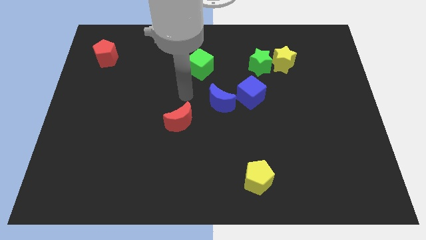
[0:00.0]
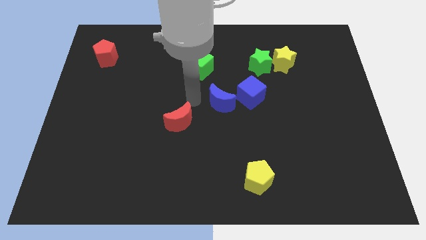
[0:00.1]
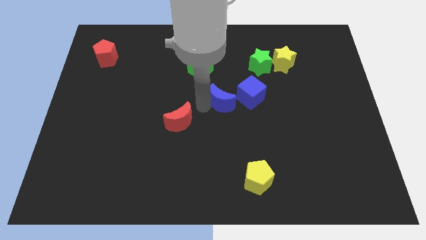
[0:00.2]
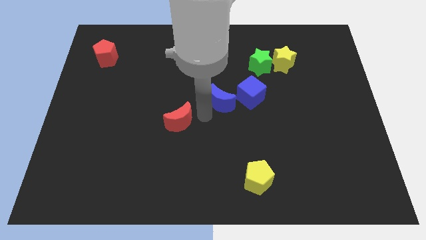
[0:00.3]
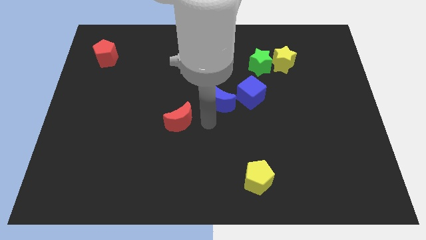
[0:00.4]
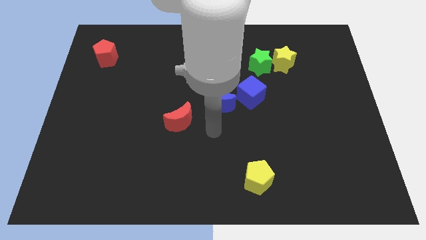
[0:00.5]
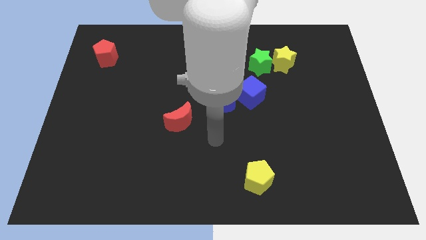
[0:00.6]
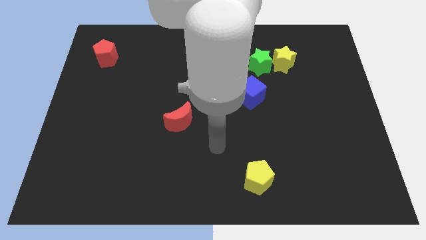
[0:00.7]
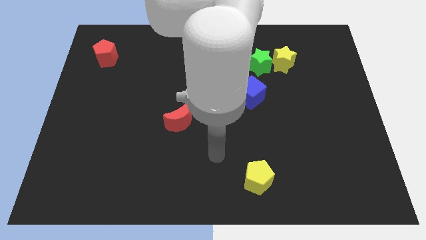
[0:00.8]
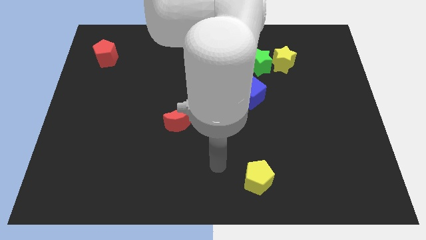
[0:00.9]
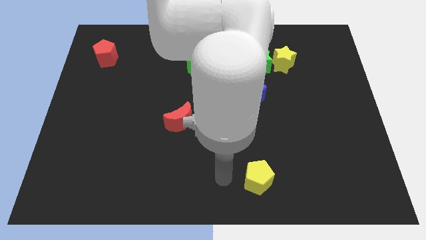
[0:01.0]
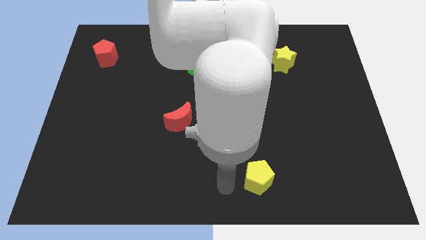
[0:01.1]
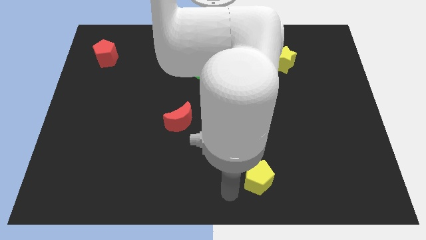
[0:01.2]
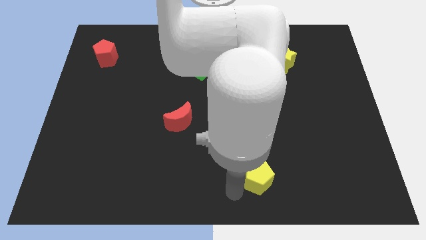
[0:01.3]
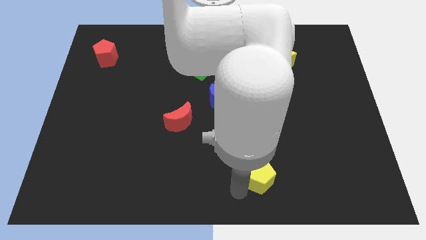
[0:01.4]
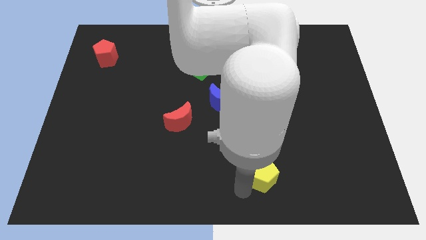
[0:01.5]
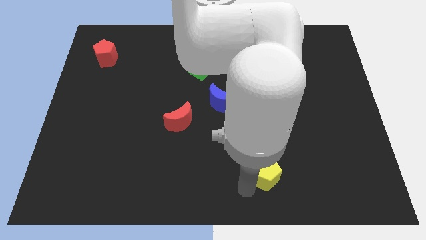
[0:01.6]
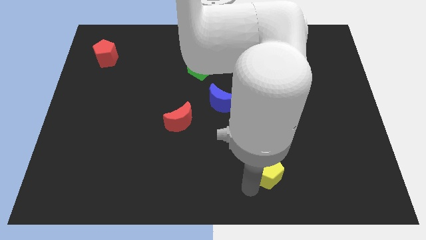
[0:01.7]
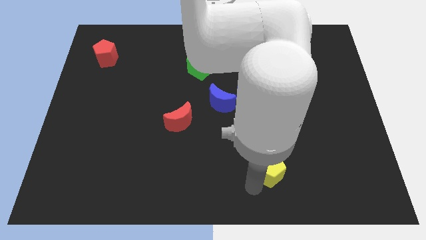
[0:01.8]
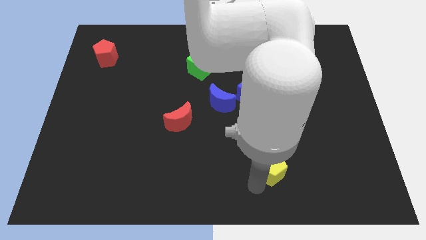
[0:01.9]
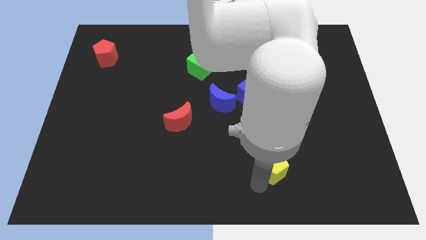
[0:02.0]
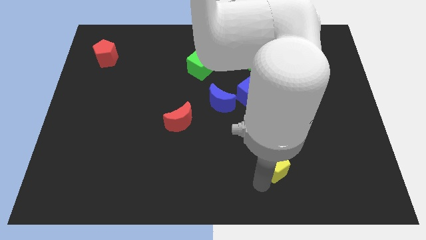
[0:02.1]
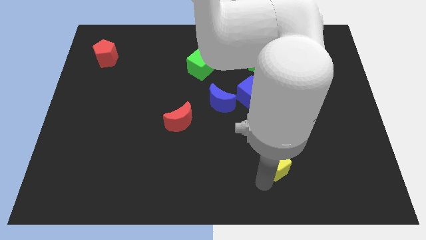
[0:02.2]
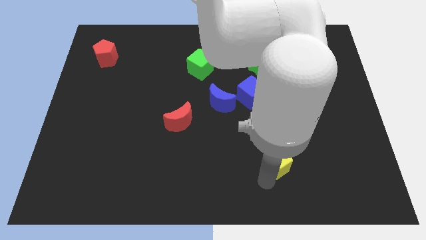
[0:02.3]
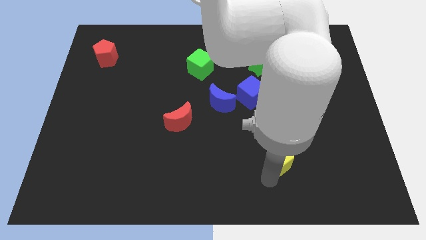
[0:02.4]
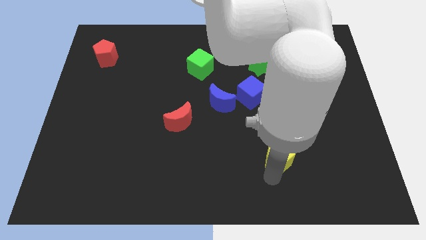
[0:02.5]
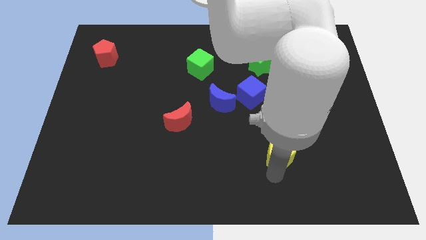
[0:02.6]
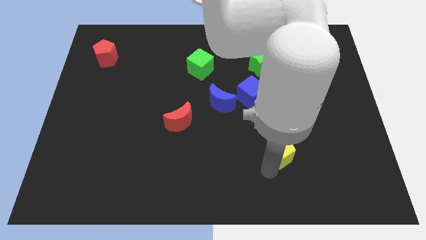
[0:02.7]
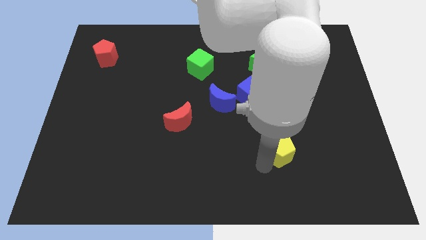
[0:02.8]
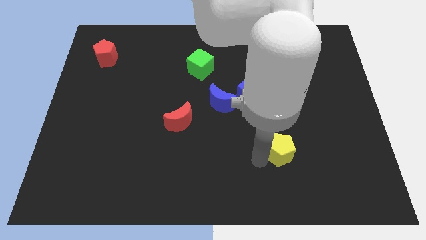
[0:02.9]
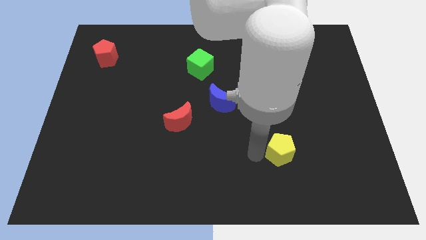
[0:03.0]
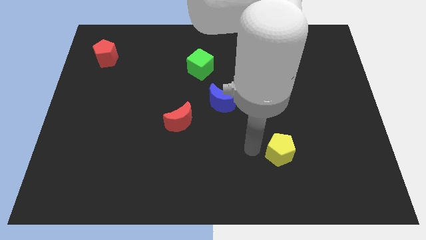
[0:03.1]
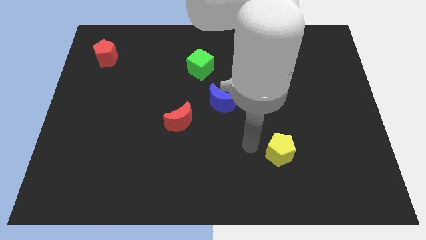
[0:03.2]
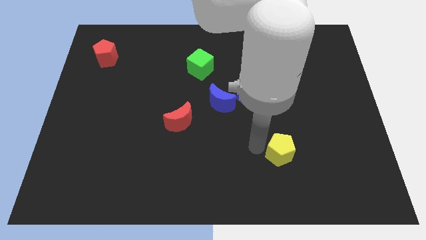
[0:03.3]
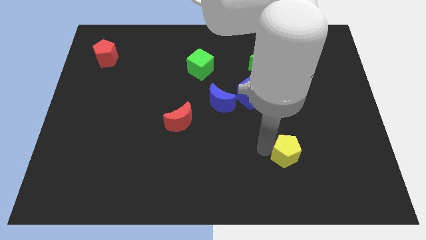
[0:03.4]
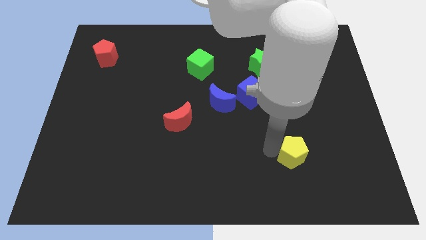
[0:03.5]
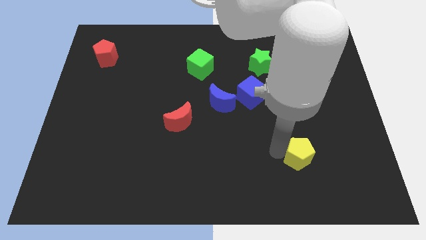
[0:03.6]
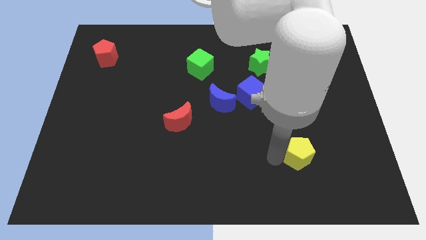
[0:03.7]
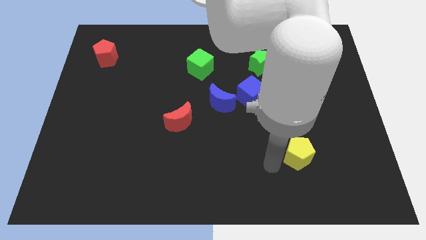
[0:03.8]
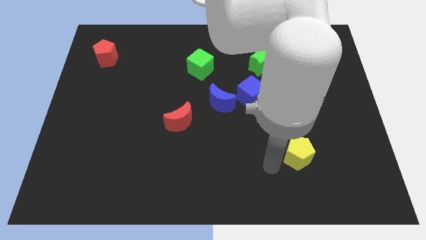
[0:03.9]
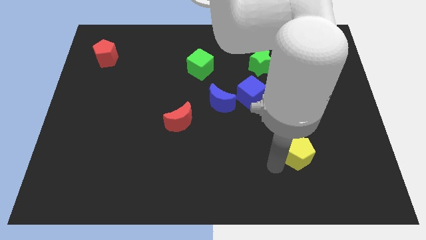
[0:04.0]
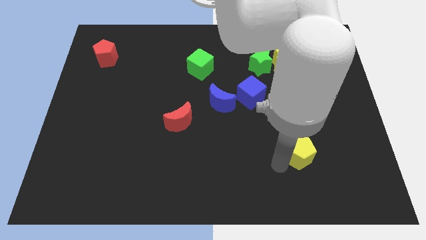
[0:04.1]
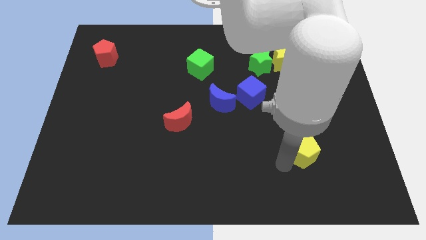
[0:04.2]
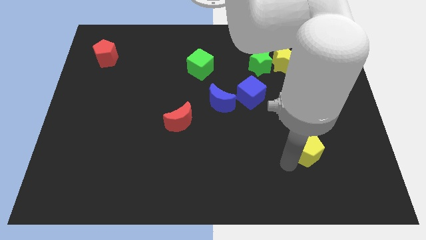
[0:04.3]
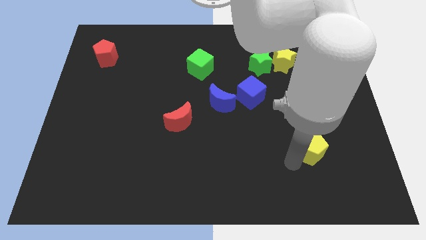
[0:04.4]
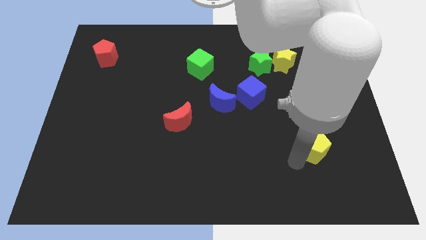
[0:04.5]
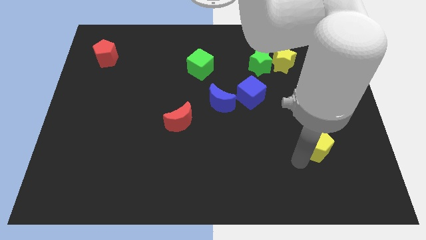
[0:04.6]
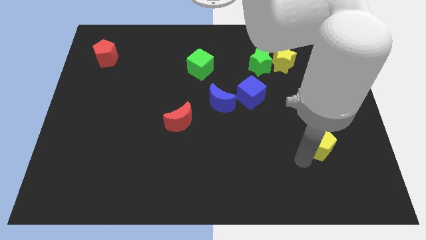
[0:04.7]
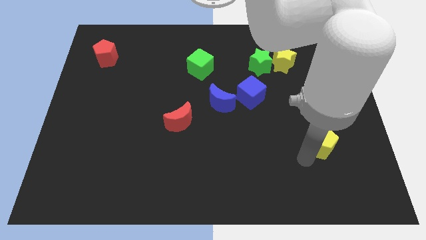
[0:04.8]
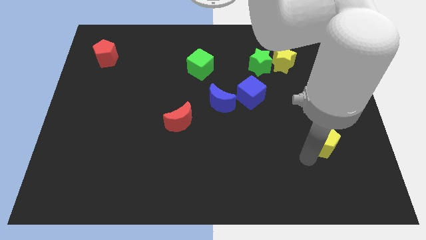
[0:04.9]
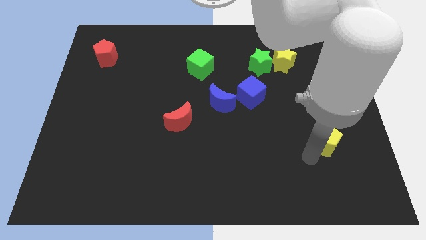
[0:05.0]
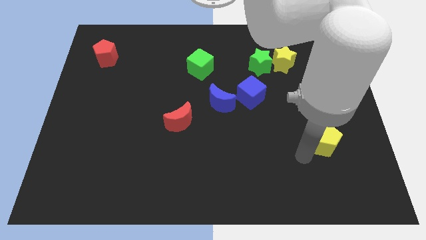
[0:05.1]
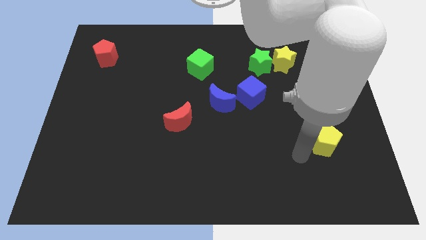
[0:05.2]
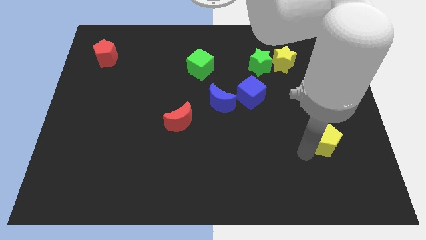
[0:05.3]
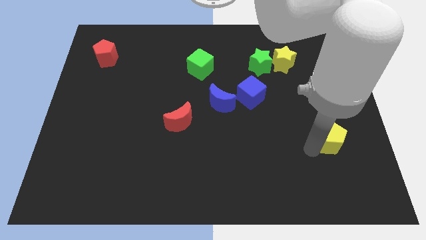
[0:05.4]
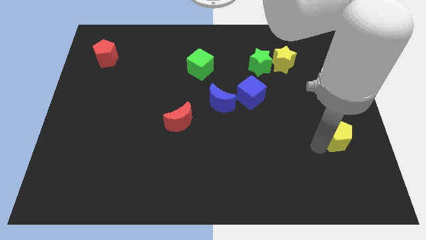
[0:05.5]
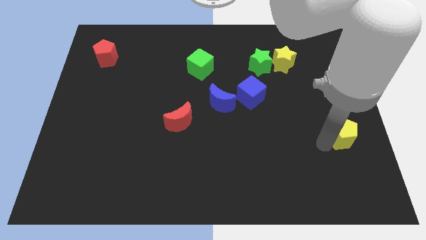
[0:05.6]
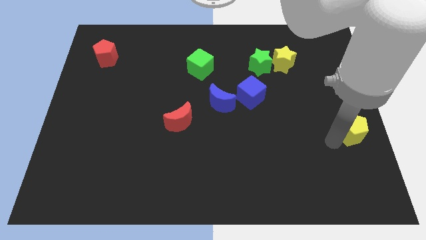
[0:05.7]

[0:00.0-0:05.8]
push the yellow pentagon to the right side

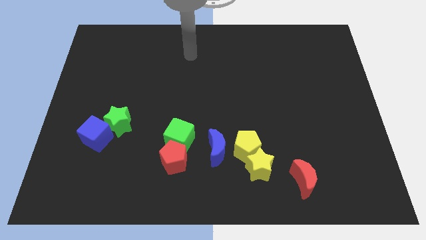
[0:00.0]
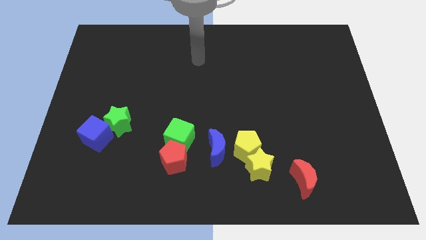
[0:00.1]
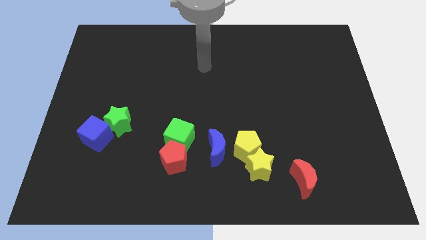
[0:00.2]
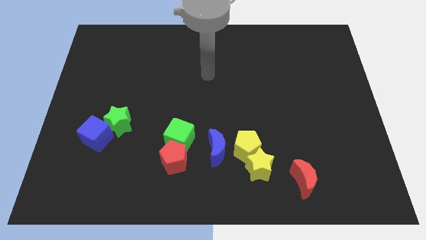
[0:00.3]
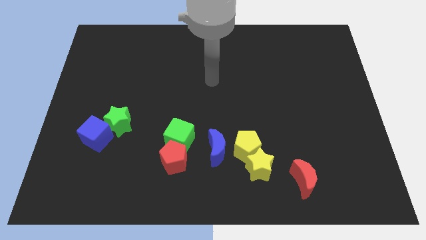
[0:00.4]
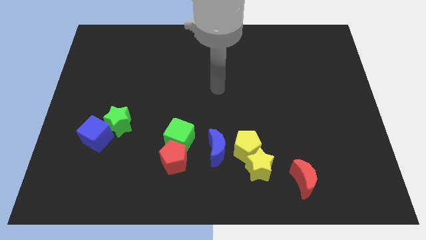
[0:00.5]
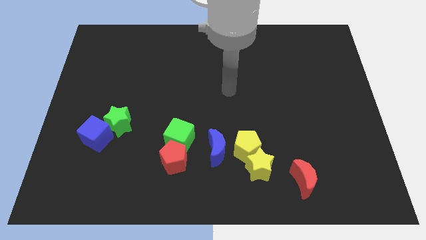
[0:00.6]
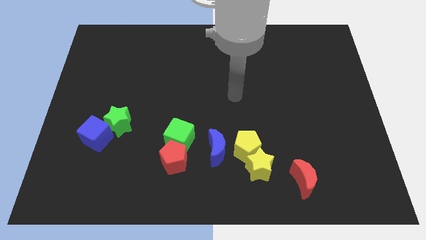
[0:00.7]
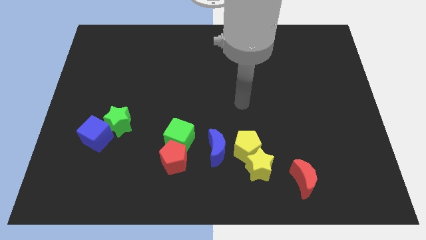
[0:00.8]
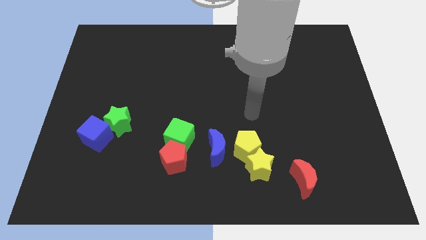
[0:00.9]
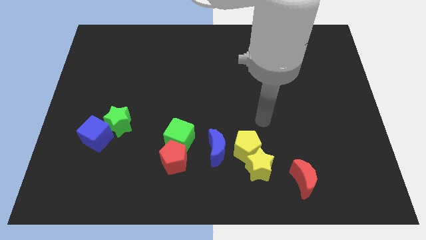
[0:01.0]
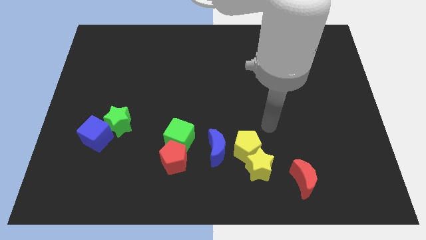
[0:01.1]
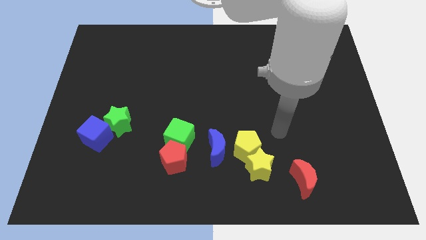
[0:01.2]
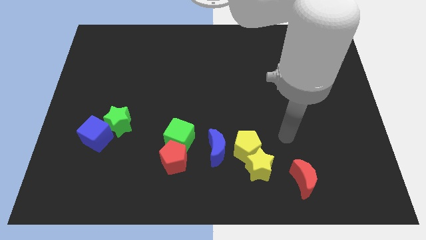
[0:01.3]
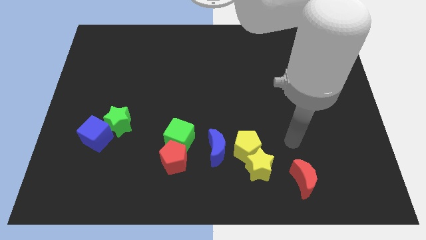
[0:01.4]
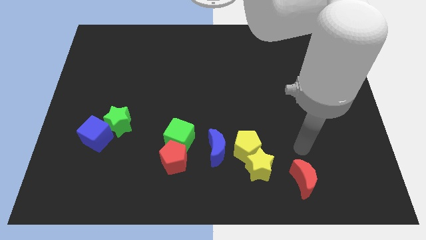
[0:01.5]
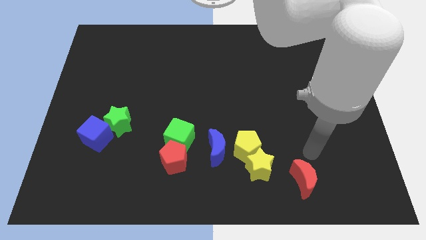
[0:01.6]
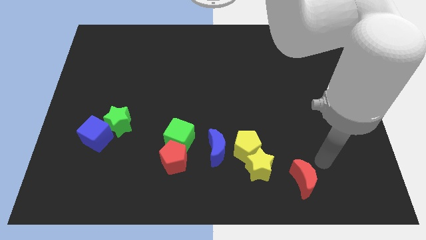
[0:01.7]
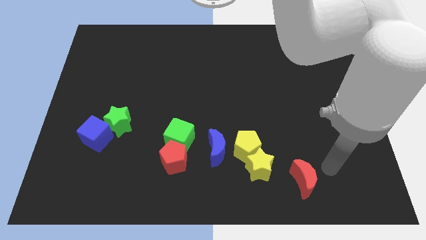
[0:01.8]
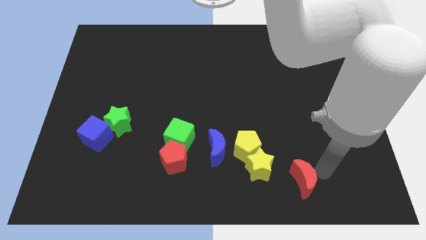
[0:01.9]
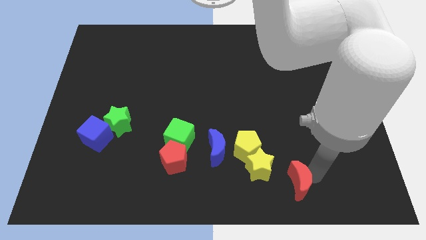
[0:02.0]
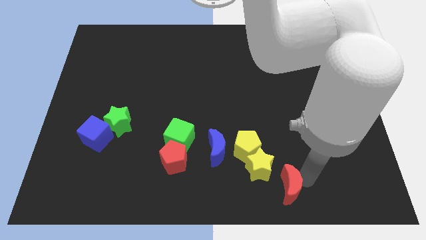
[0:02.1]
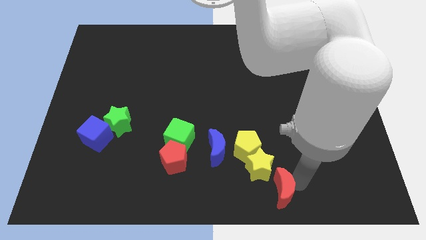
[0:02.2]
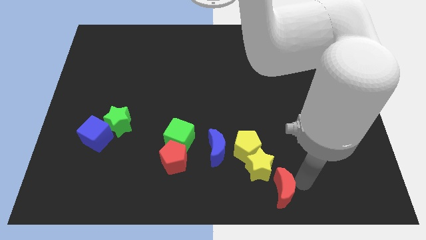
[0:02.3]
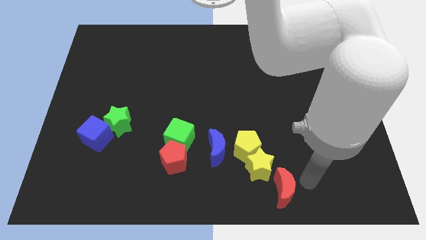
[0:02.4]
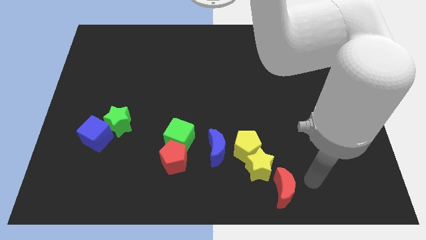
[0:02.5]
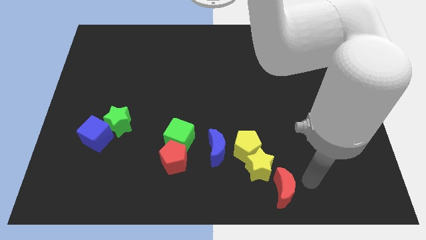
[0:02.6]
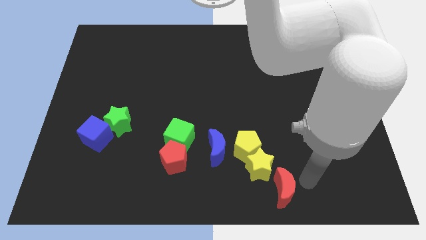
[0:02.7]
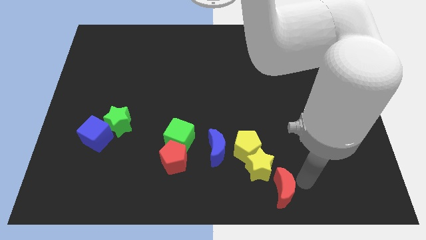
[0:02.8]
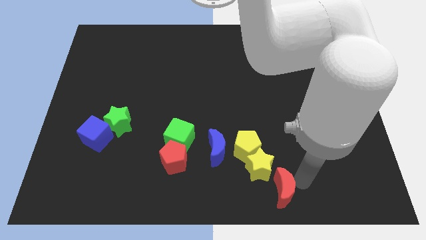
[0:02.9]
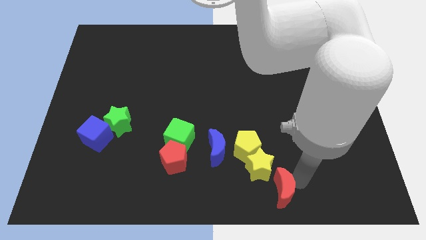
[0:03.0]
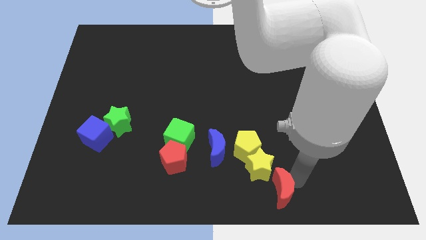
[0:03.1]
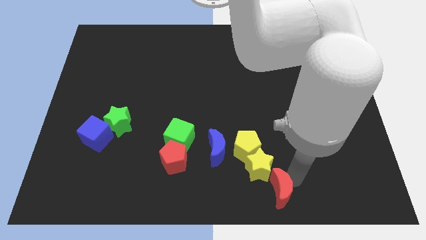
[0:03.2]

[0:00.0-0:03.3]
push the red moon to the bottom
